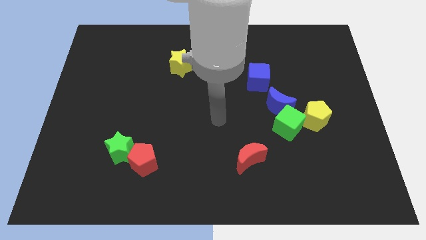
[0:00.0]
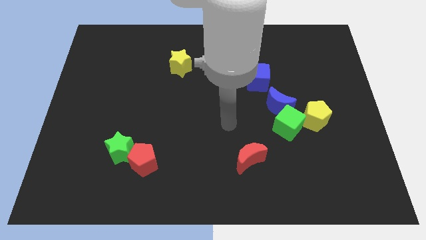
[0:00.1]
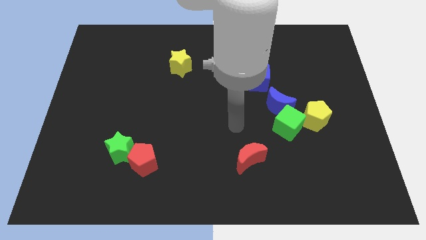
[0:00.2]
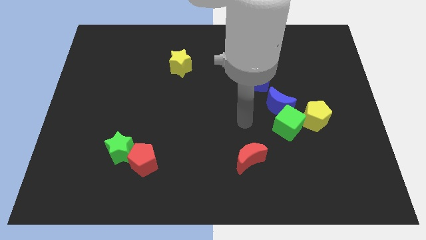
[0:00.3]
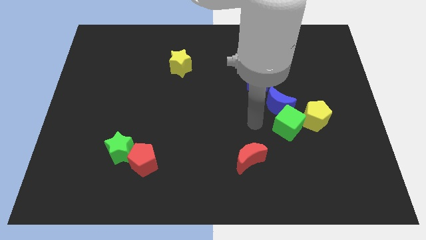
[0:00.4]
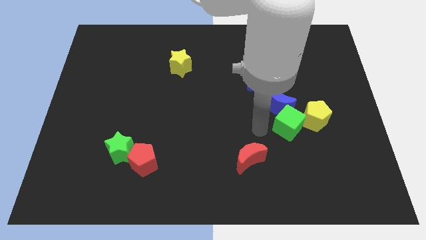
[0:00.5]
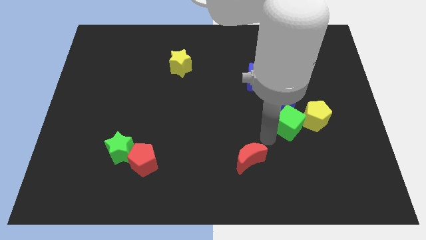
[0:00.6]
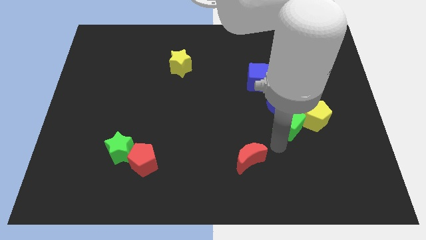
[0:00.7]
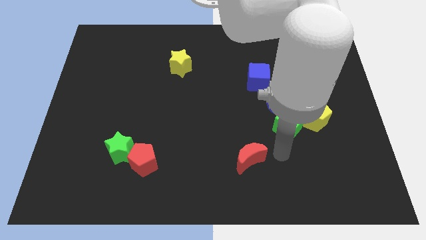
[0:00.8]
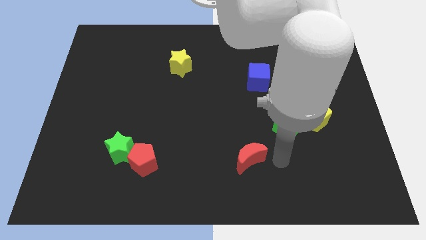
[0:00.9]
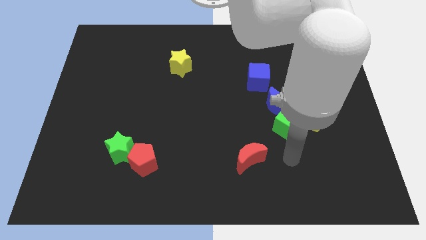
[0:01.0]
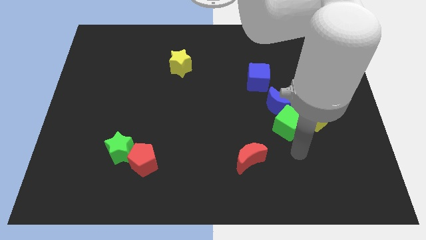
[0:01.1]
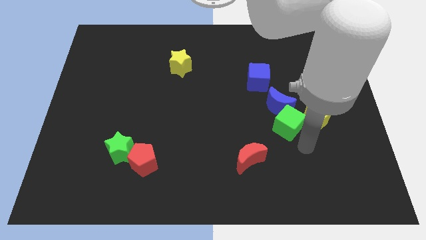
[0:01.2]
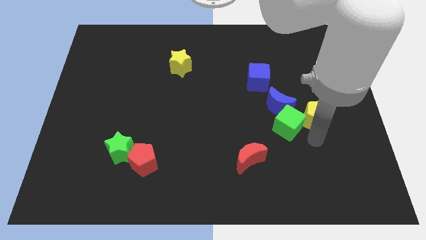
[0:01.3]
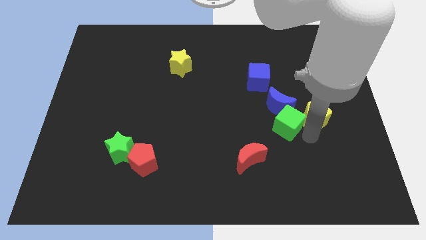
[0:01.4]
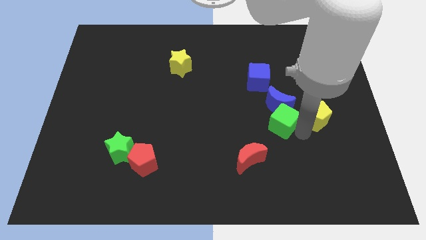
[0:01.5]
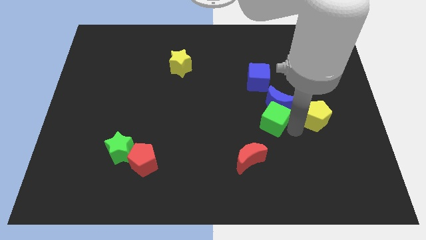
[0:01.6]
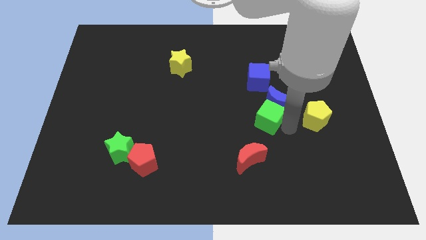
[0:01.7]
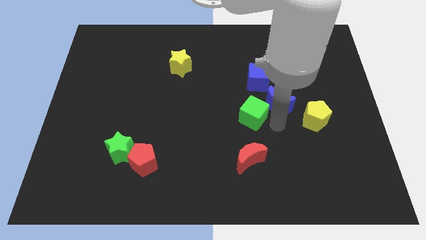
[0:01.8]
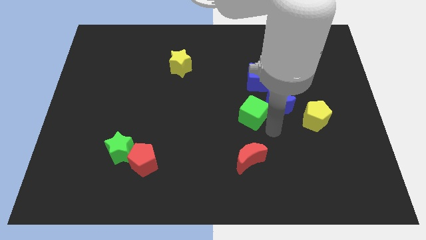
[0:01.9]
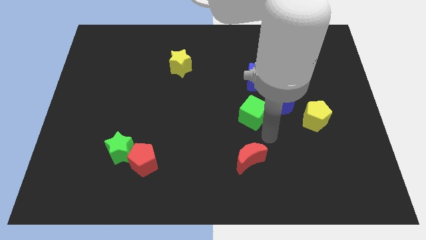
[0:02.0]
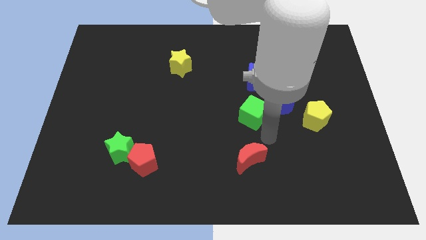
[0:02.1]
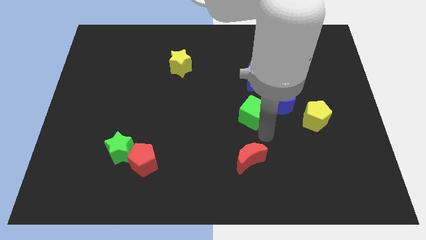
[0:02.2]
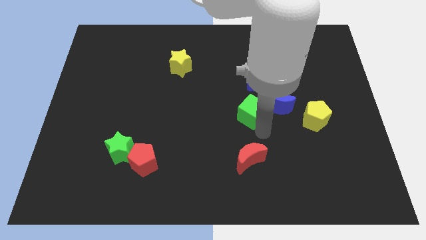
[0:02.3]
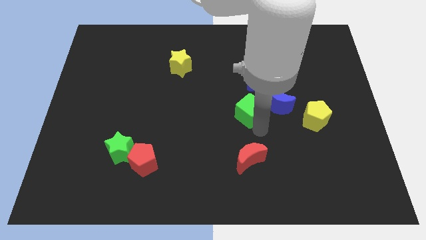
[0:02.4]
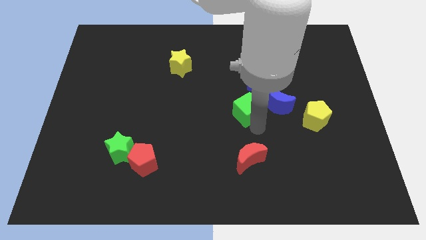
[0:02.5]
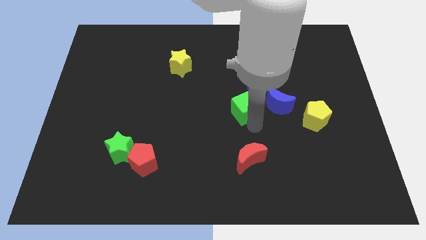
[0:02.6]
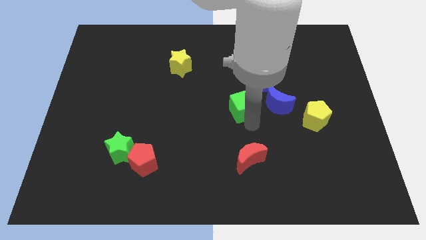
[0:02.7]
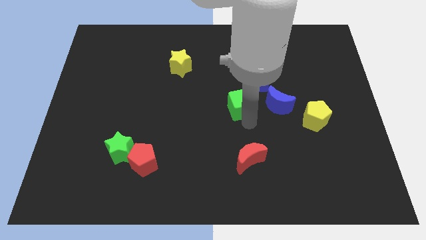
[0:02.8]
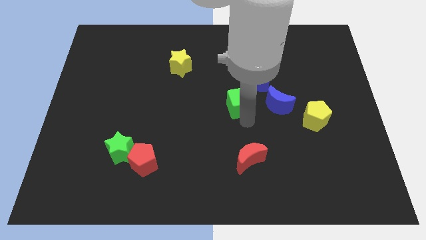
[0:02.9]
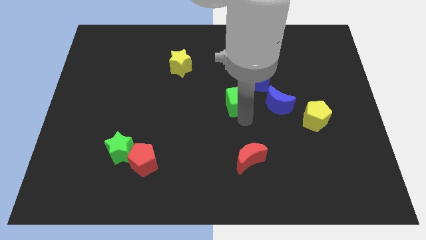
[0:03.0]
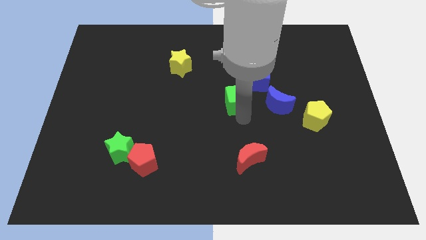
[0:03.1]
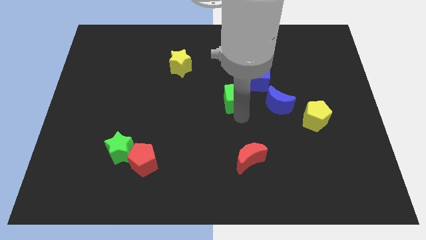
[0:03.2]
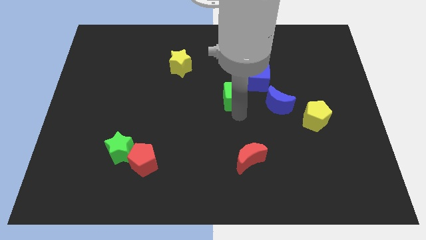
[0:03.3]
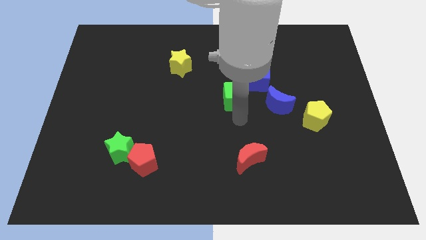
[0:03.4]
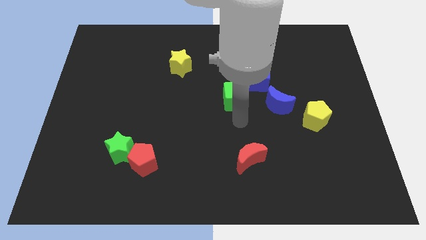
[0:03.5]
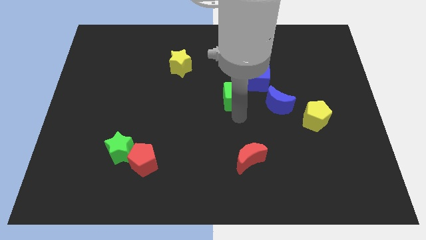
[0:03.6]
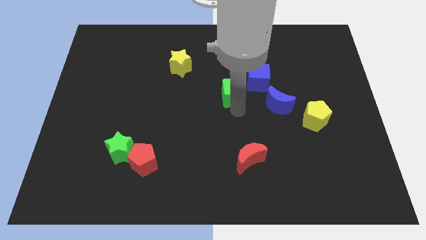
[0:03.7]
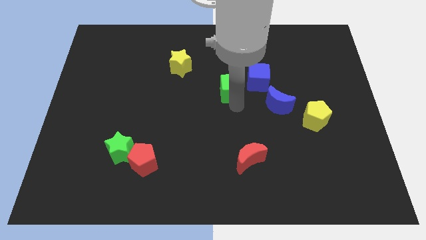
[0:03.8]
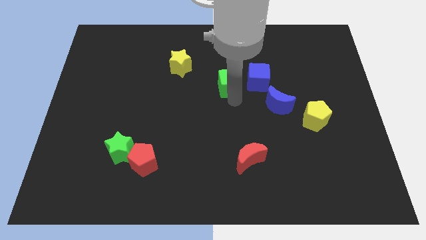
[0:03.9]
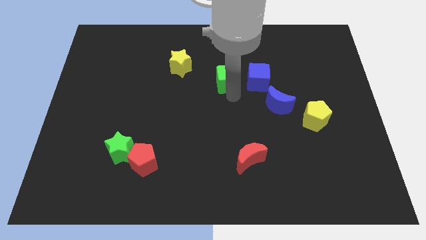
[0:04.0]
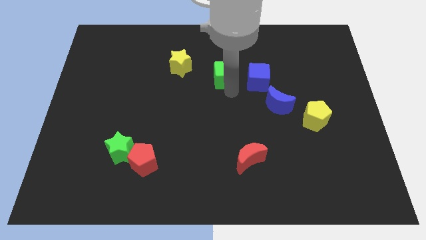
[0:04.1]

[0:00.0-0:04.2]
slide the green cube up and to the left

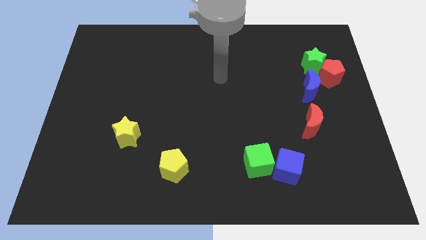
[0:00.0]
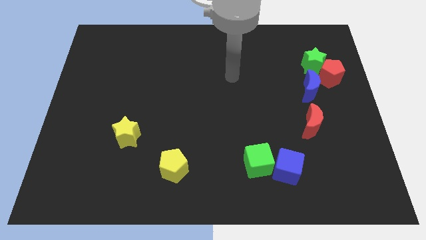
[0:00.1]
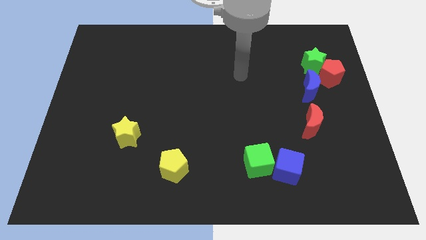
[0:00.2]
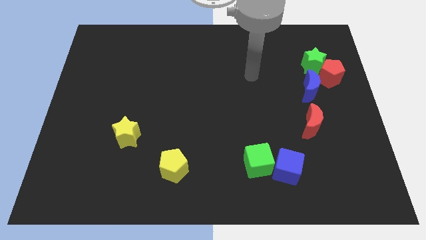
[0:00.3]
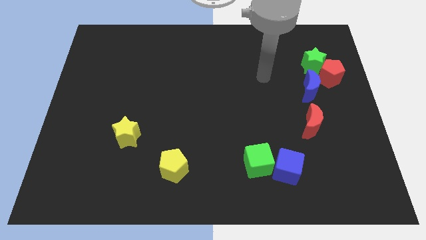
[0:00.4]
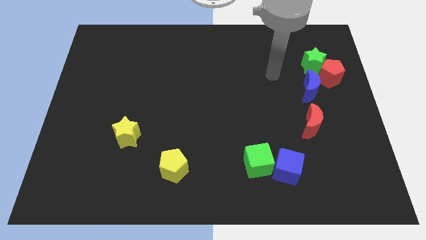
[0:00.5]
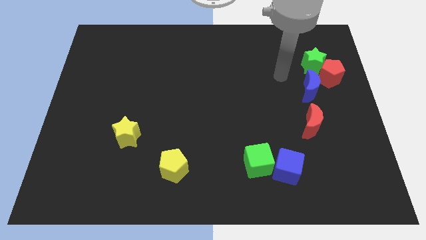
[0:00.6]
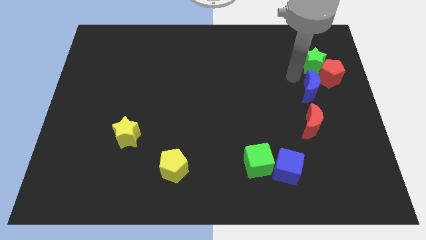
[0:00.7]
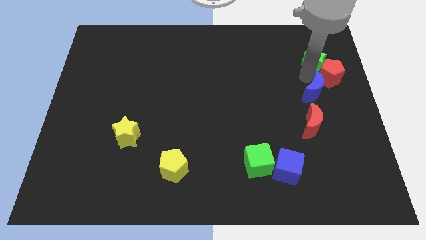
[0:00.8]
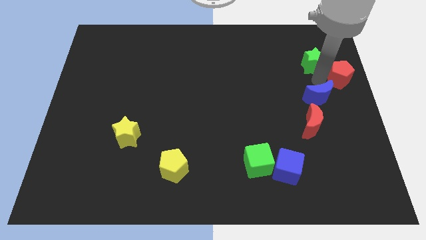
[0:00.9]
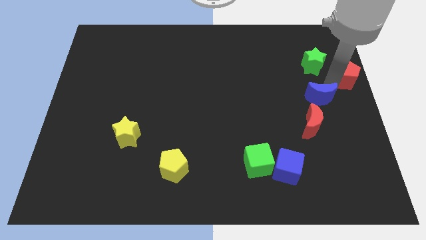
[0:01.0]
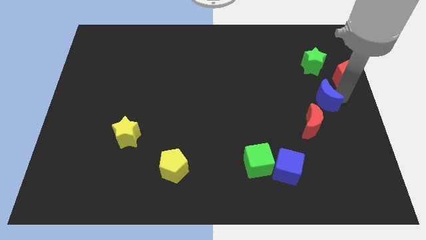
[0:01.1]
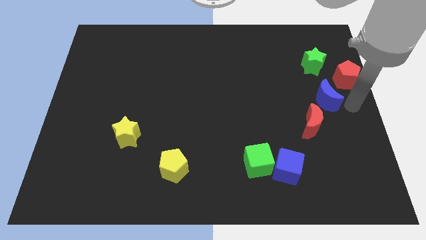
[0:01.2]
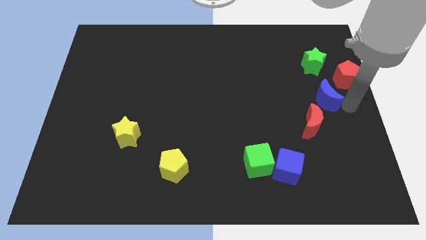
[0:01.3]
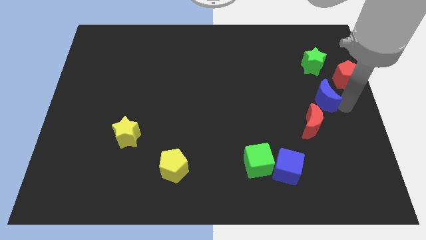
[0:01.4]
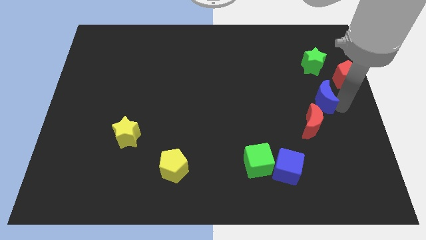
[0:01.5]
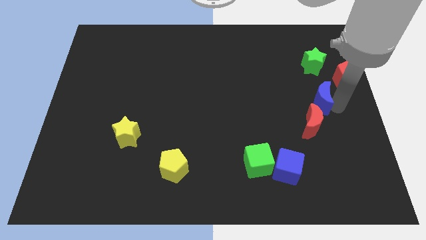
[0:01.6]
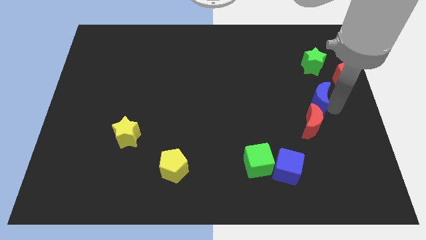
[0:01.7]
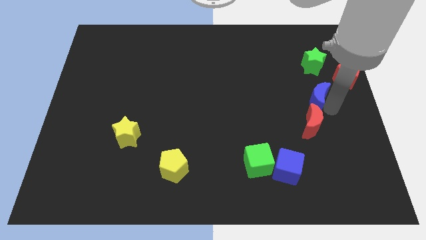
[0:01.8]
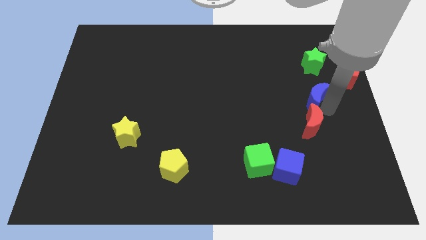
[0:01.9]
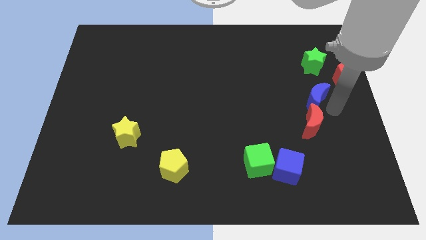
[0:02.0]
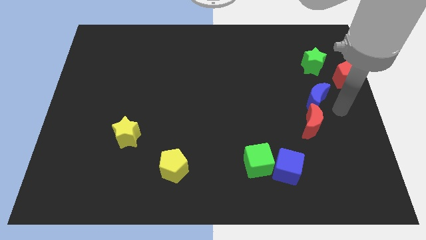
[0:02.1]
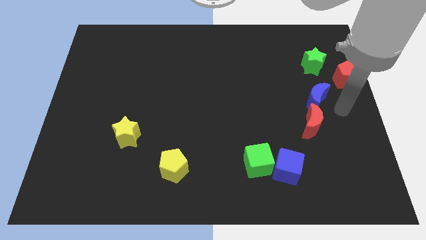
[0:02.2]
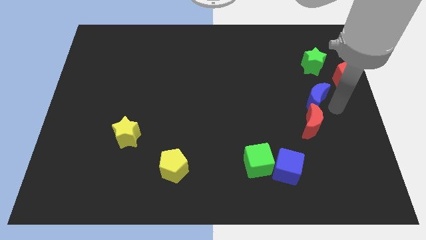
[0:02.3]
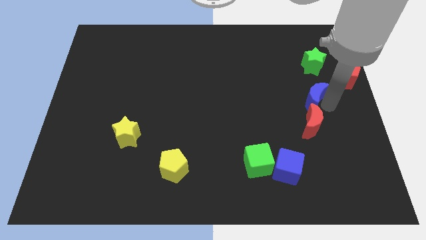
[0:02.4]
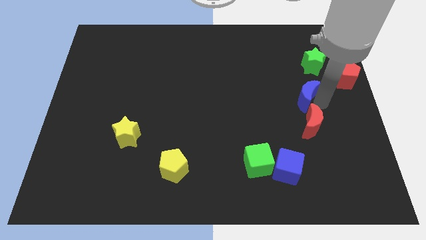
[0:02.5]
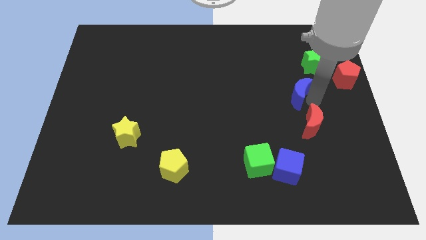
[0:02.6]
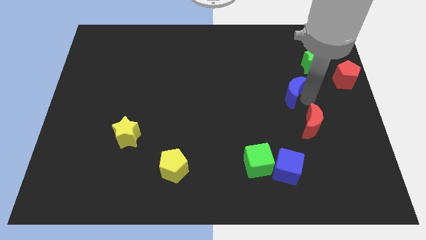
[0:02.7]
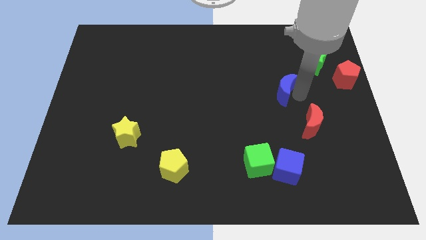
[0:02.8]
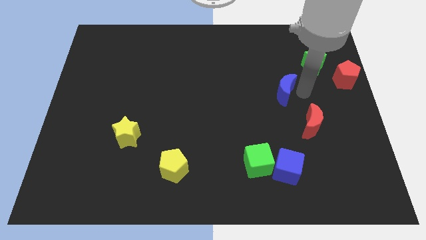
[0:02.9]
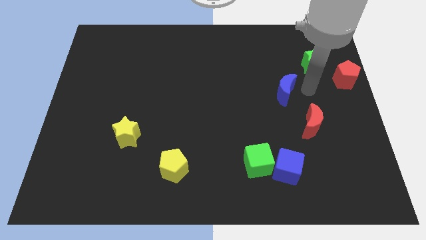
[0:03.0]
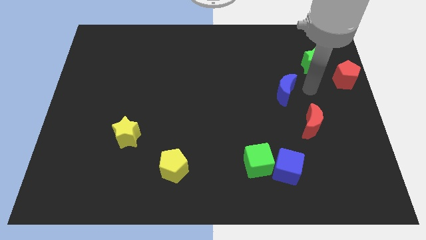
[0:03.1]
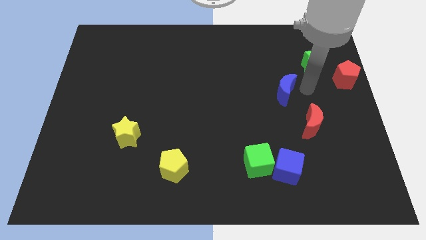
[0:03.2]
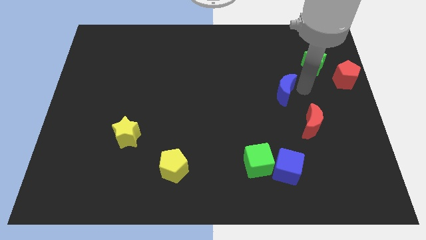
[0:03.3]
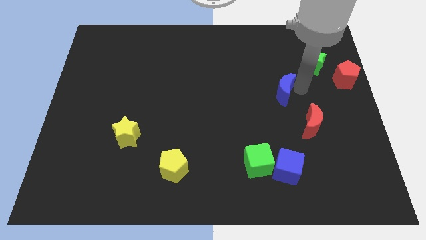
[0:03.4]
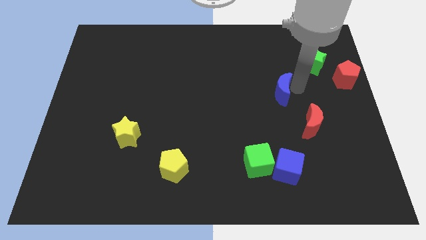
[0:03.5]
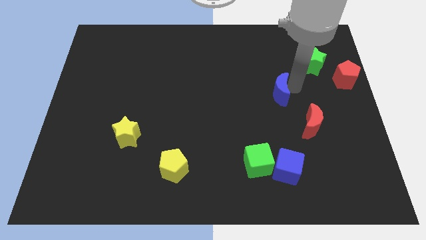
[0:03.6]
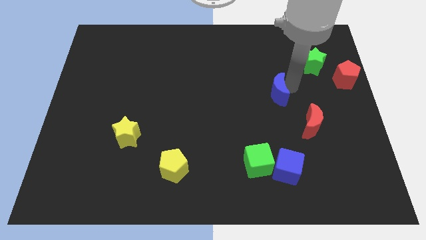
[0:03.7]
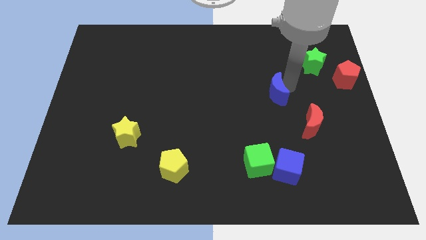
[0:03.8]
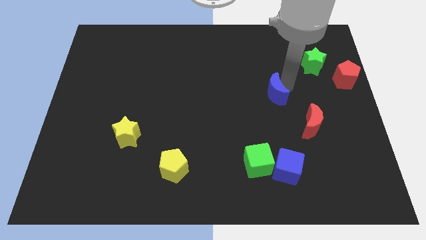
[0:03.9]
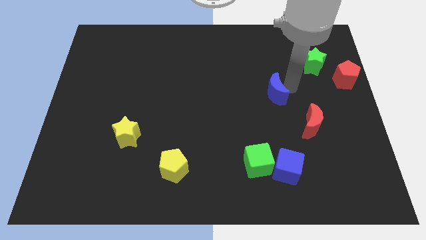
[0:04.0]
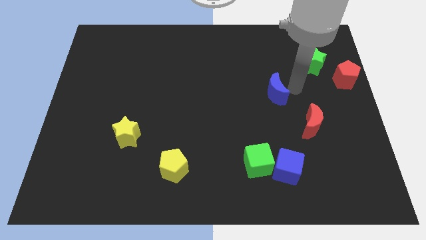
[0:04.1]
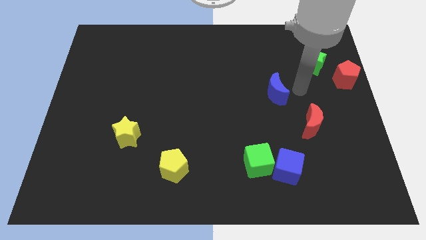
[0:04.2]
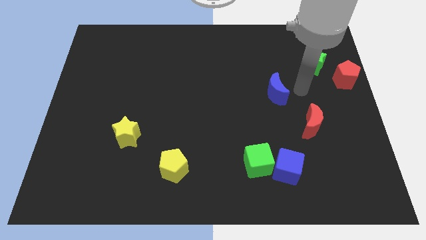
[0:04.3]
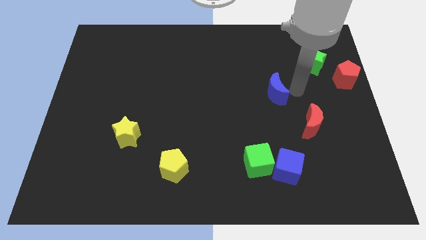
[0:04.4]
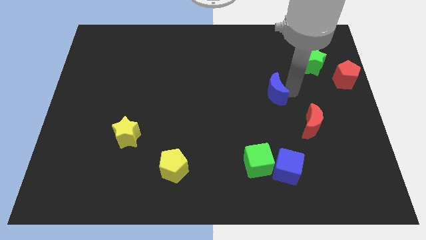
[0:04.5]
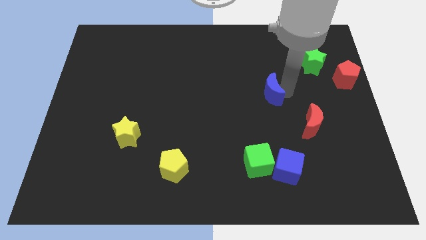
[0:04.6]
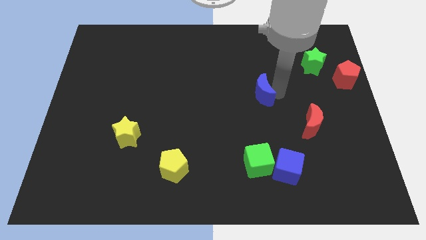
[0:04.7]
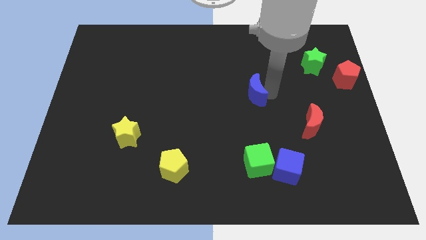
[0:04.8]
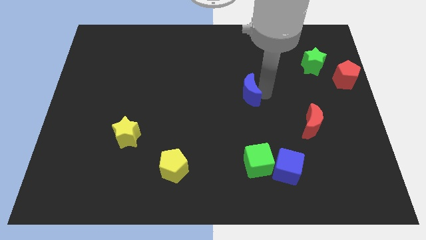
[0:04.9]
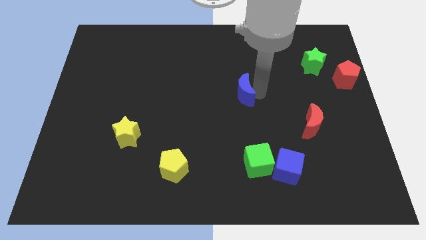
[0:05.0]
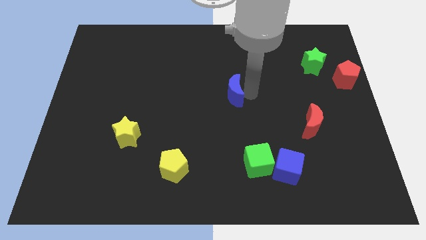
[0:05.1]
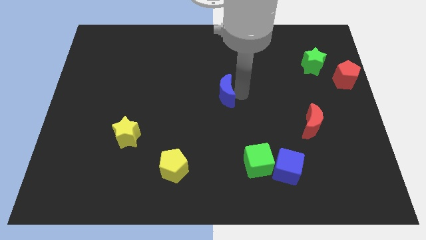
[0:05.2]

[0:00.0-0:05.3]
push the blue moon to the left
